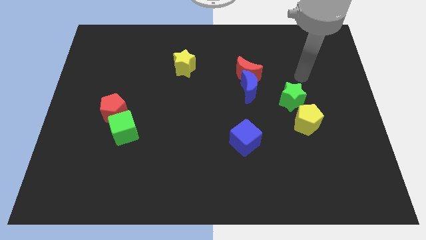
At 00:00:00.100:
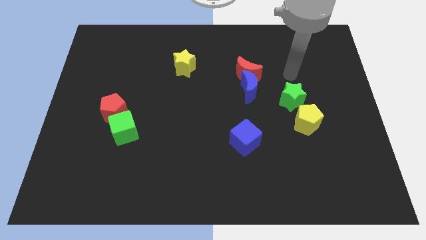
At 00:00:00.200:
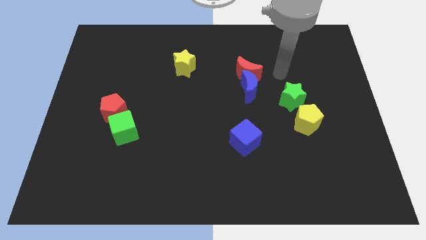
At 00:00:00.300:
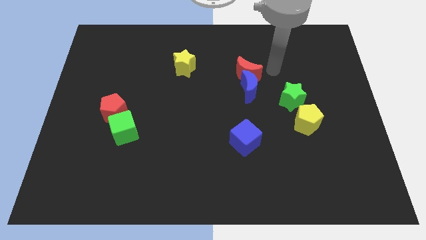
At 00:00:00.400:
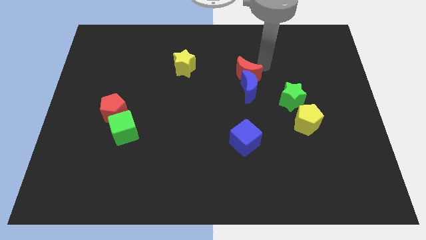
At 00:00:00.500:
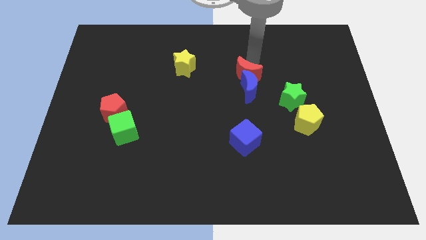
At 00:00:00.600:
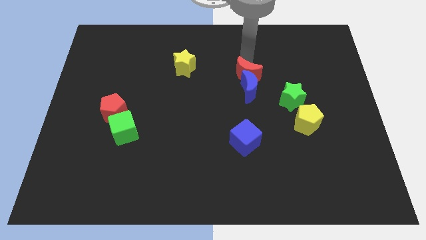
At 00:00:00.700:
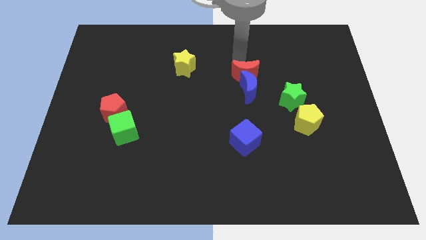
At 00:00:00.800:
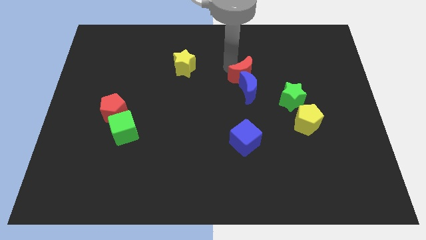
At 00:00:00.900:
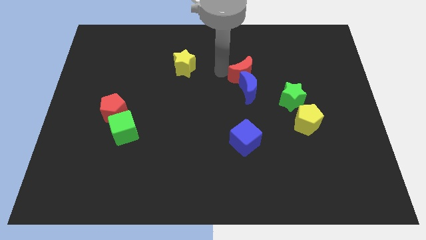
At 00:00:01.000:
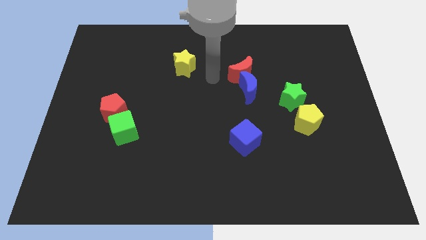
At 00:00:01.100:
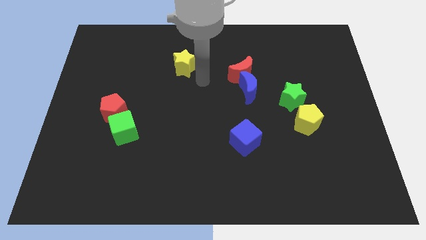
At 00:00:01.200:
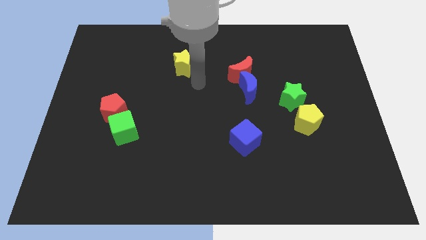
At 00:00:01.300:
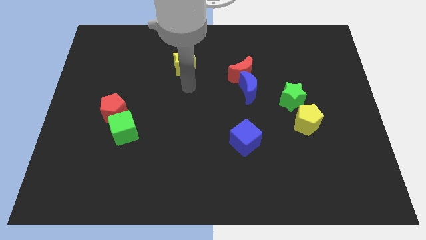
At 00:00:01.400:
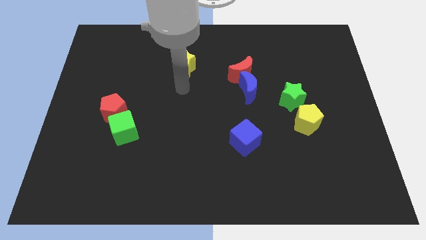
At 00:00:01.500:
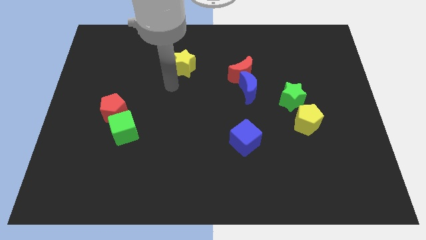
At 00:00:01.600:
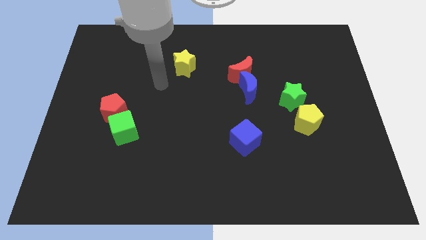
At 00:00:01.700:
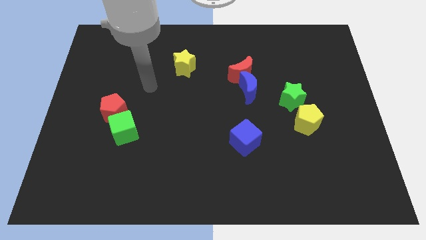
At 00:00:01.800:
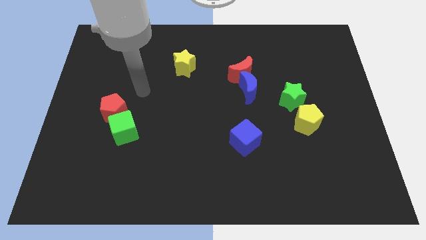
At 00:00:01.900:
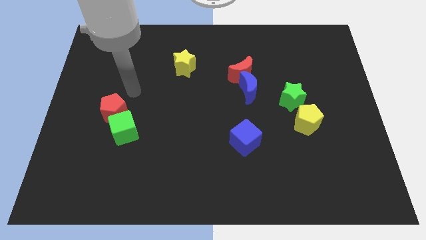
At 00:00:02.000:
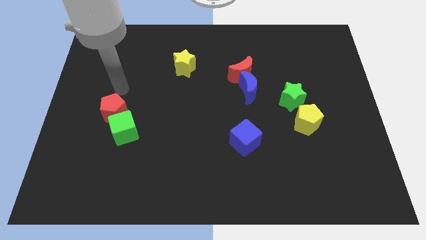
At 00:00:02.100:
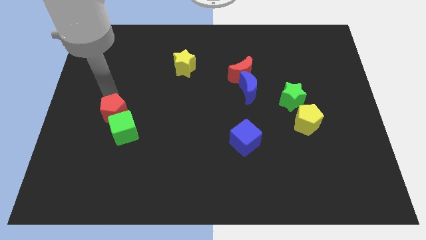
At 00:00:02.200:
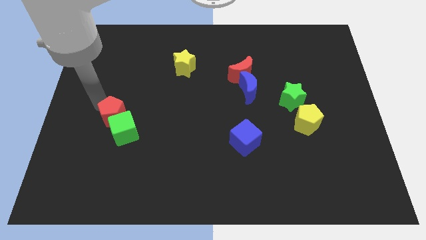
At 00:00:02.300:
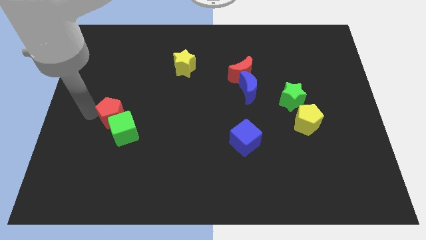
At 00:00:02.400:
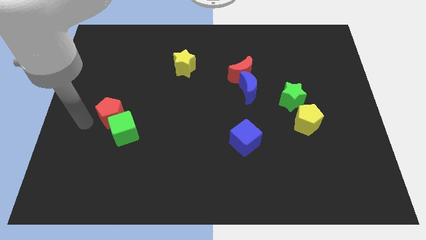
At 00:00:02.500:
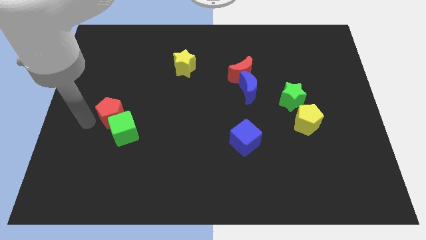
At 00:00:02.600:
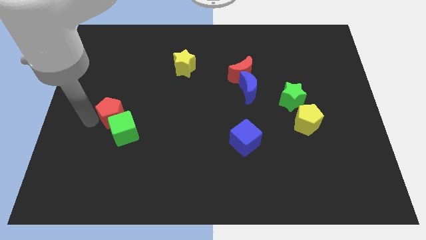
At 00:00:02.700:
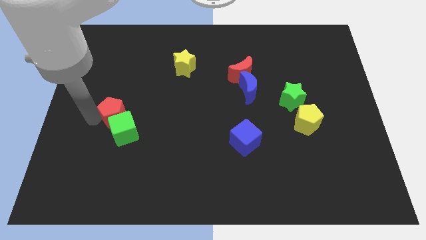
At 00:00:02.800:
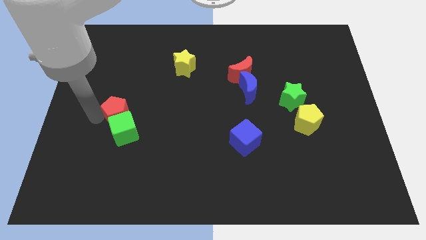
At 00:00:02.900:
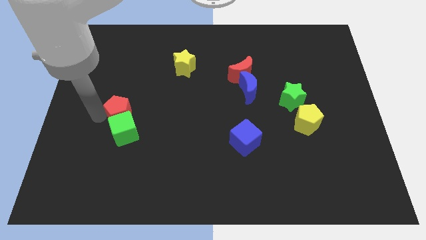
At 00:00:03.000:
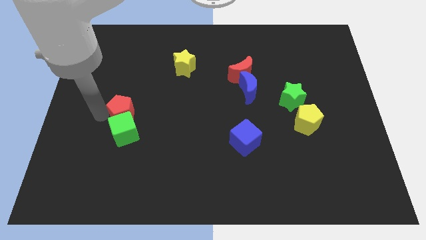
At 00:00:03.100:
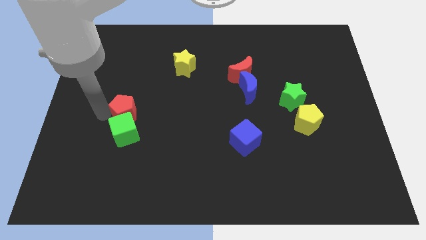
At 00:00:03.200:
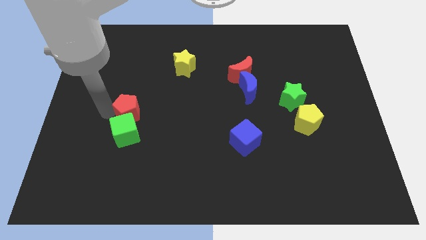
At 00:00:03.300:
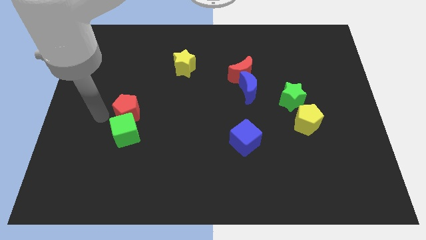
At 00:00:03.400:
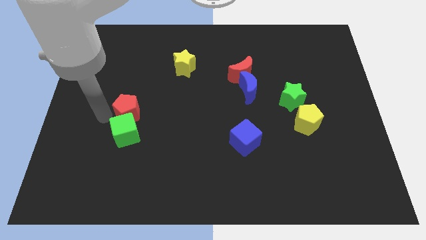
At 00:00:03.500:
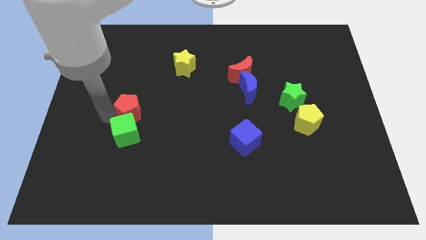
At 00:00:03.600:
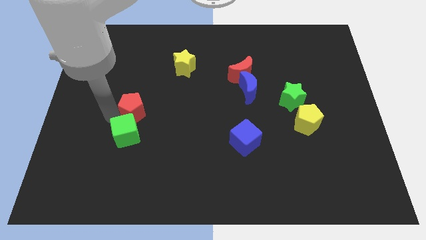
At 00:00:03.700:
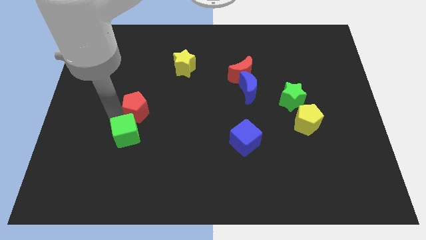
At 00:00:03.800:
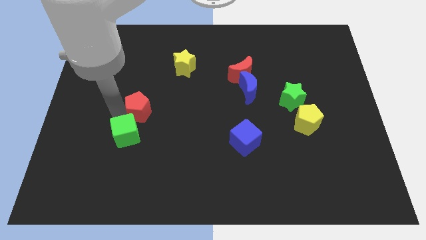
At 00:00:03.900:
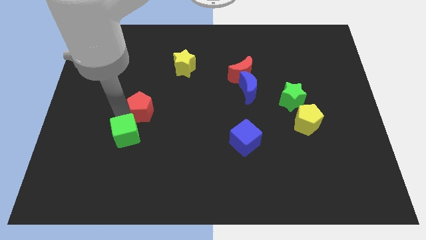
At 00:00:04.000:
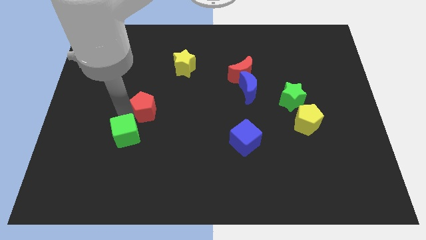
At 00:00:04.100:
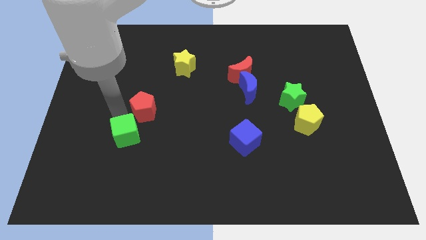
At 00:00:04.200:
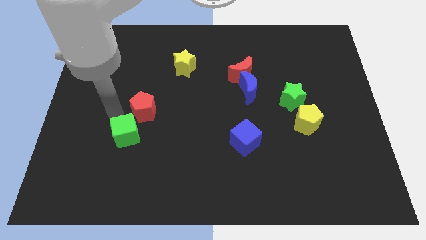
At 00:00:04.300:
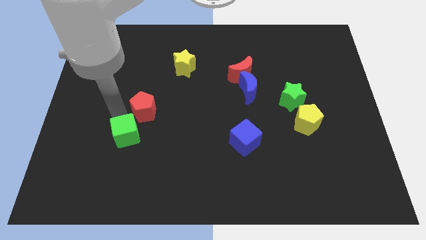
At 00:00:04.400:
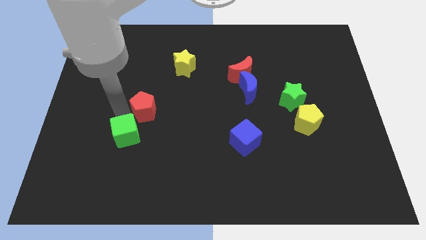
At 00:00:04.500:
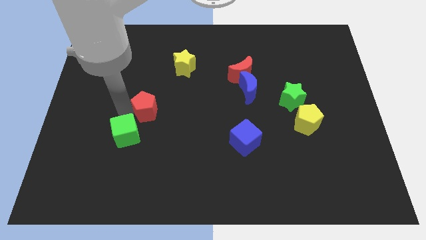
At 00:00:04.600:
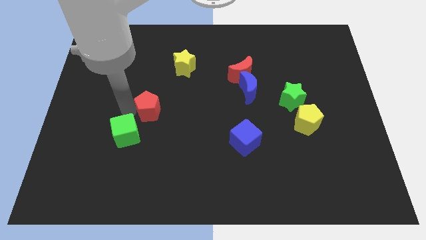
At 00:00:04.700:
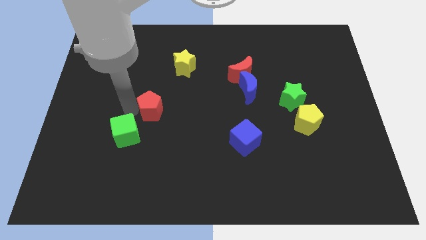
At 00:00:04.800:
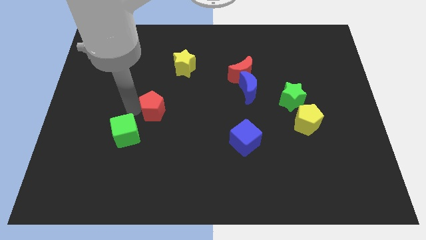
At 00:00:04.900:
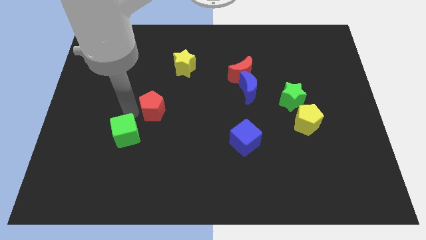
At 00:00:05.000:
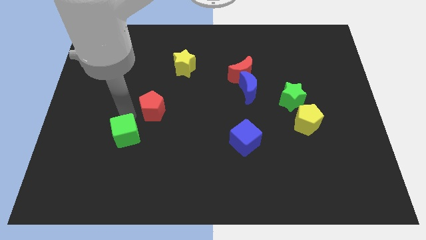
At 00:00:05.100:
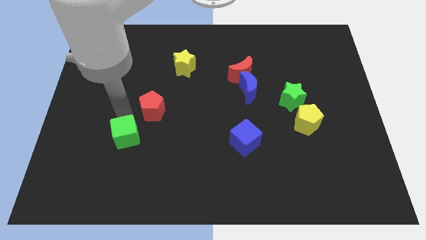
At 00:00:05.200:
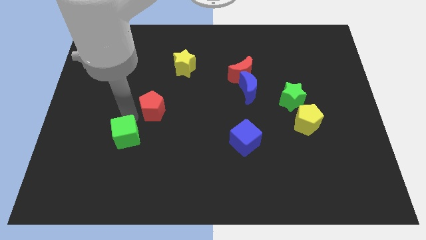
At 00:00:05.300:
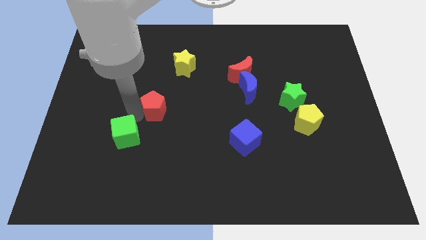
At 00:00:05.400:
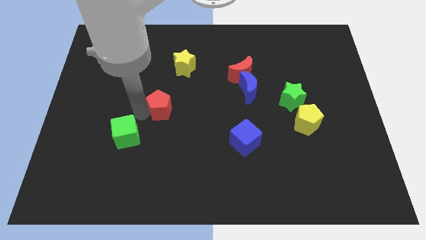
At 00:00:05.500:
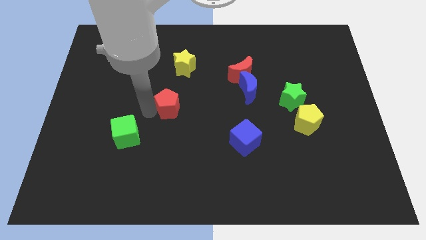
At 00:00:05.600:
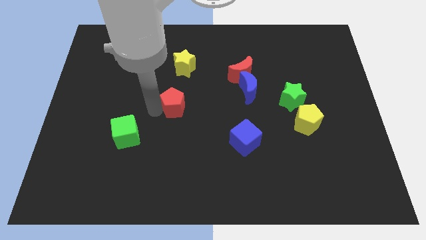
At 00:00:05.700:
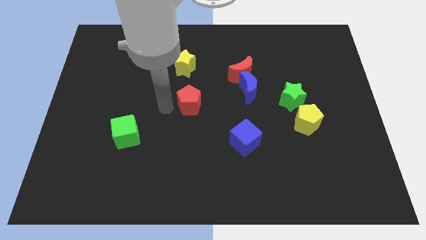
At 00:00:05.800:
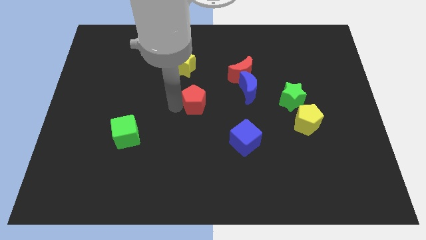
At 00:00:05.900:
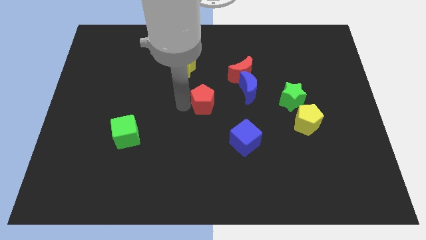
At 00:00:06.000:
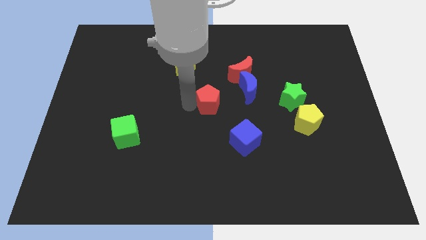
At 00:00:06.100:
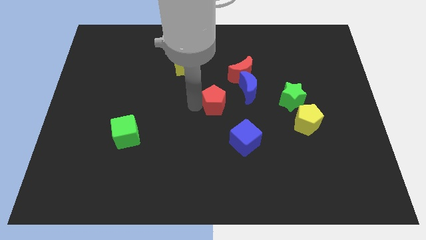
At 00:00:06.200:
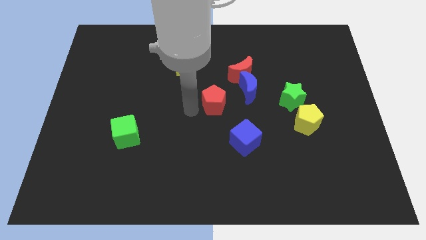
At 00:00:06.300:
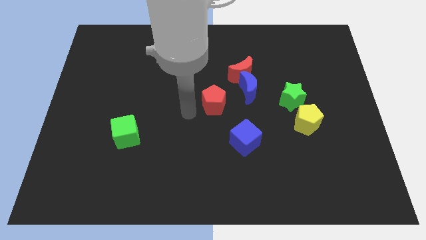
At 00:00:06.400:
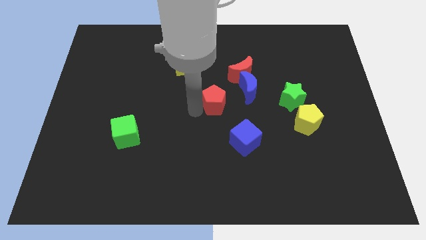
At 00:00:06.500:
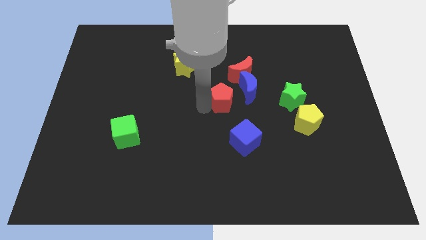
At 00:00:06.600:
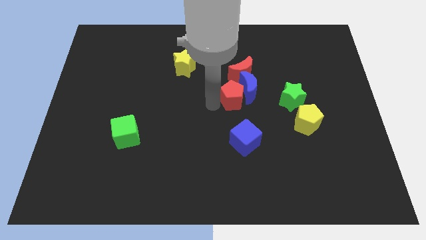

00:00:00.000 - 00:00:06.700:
move the red pentagon close to the blue moon

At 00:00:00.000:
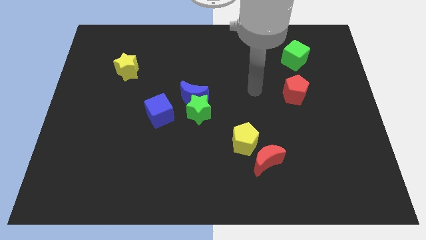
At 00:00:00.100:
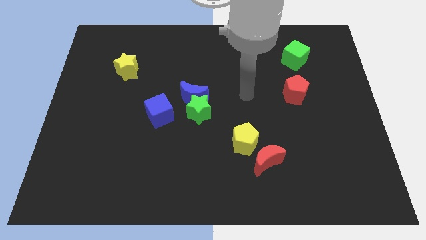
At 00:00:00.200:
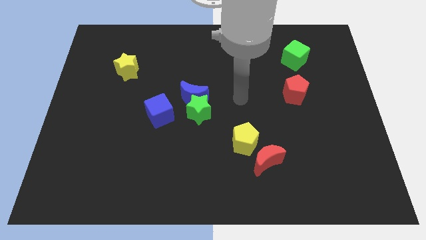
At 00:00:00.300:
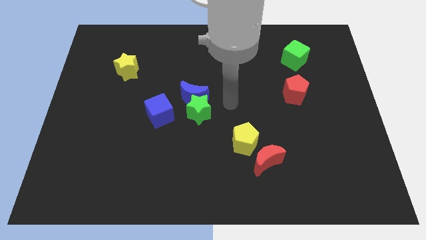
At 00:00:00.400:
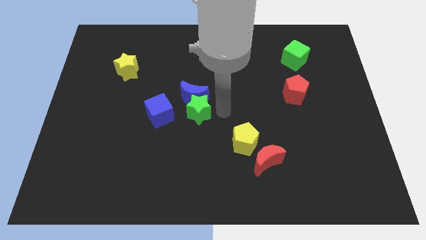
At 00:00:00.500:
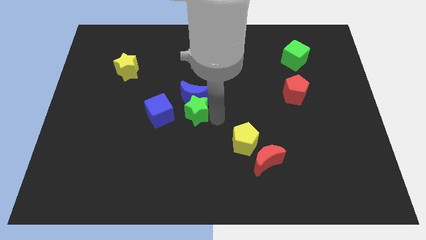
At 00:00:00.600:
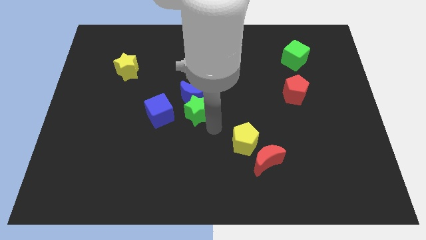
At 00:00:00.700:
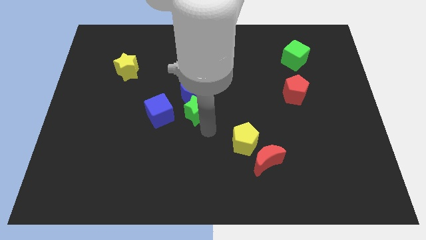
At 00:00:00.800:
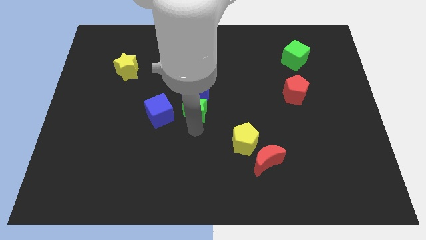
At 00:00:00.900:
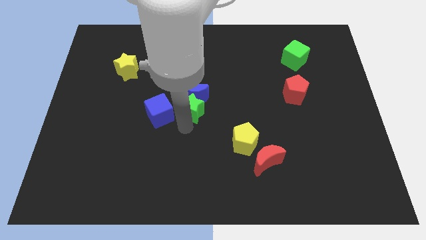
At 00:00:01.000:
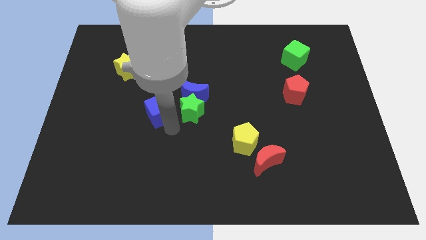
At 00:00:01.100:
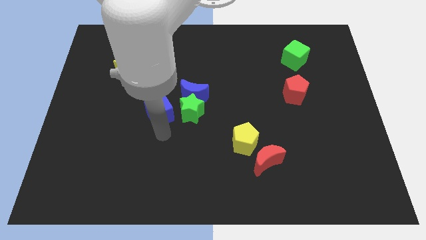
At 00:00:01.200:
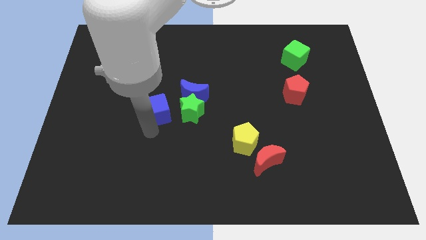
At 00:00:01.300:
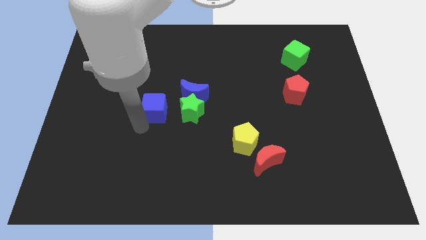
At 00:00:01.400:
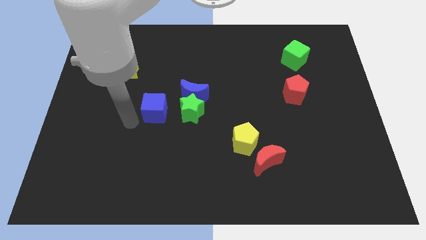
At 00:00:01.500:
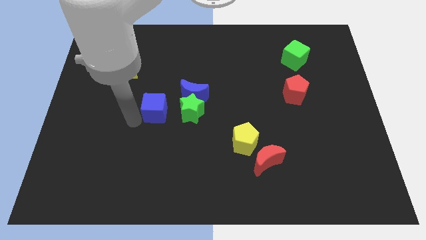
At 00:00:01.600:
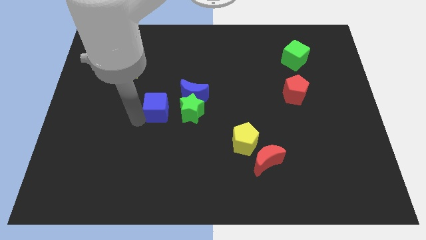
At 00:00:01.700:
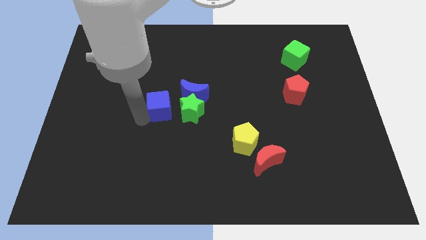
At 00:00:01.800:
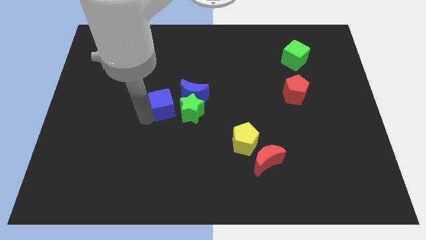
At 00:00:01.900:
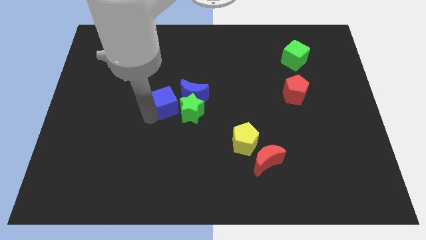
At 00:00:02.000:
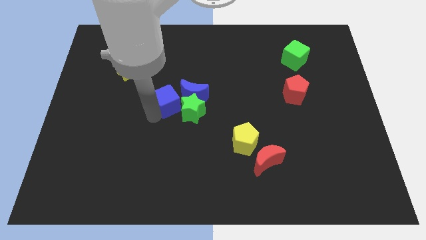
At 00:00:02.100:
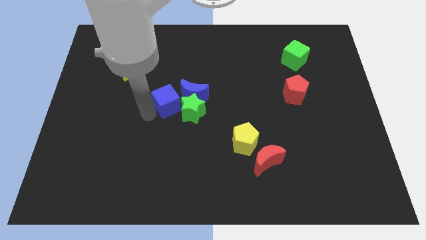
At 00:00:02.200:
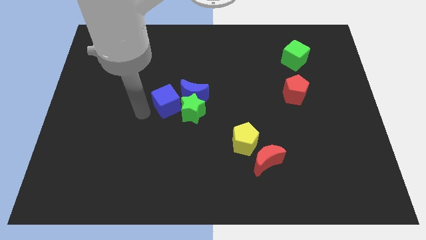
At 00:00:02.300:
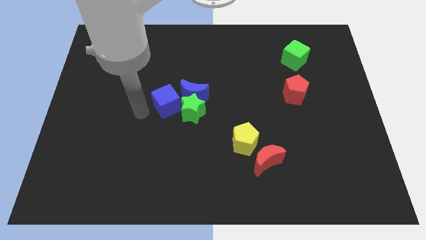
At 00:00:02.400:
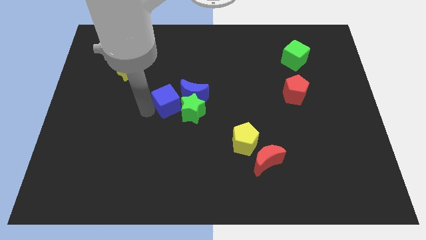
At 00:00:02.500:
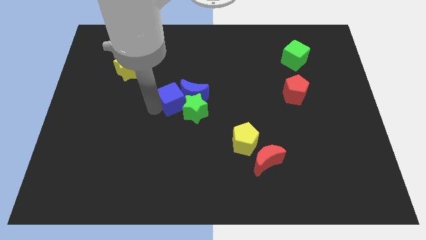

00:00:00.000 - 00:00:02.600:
push the blue cube close to the blue moon
